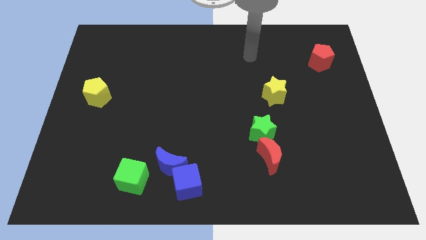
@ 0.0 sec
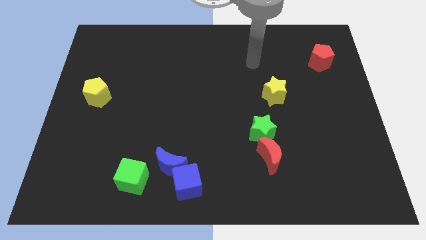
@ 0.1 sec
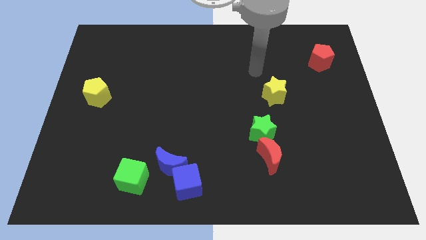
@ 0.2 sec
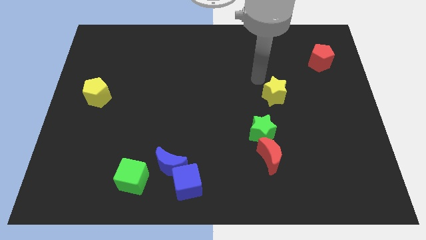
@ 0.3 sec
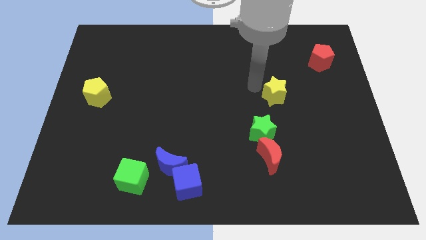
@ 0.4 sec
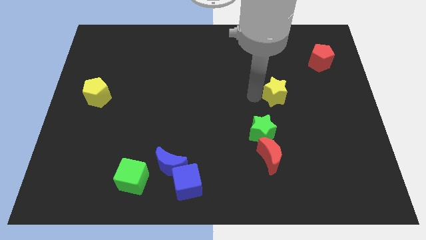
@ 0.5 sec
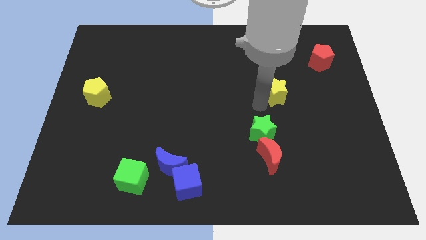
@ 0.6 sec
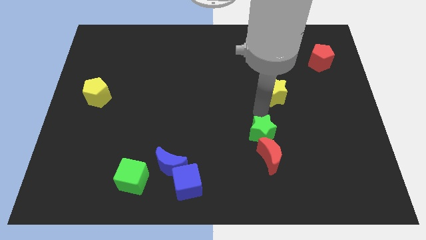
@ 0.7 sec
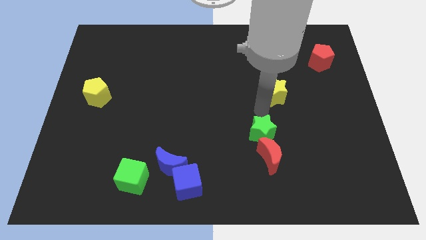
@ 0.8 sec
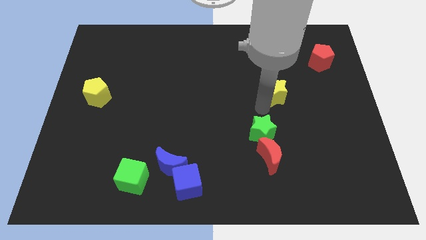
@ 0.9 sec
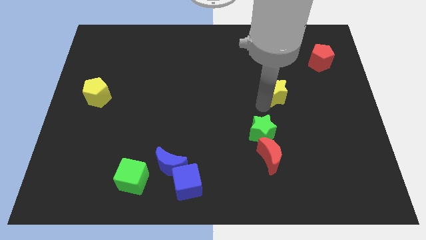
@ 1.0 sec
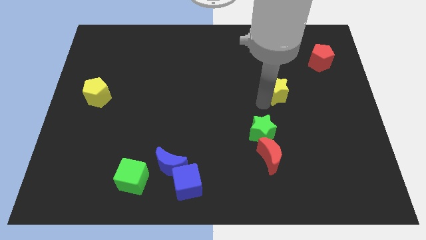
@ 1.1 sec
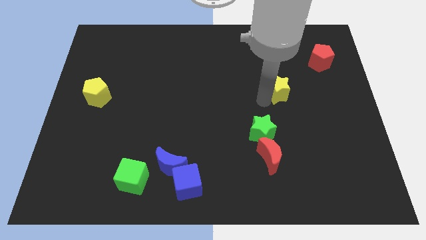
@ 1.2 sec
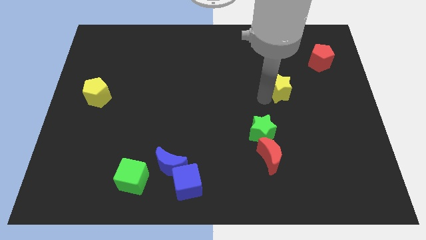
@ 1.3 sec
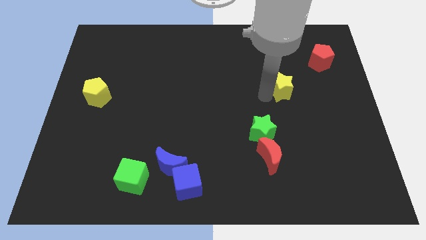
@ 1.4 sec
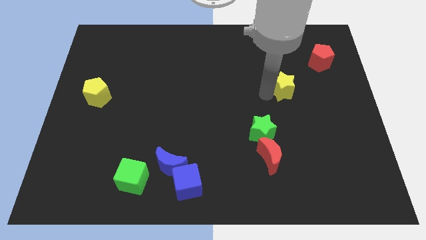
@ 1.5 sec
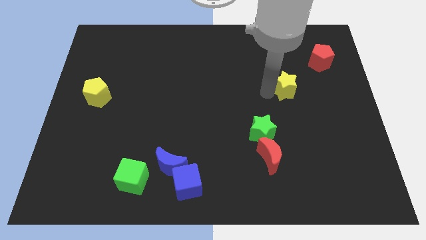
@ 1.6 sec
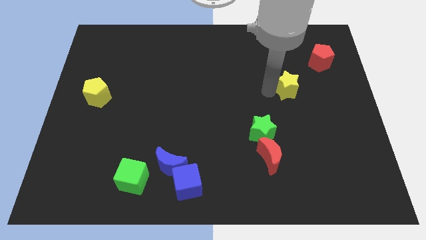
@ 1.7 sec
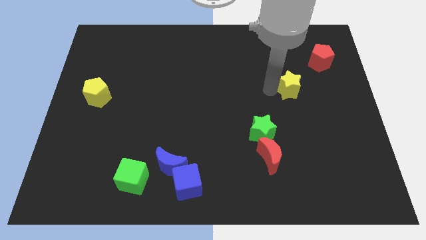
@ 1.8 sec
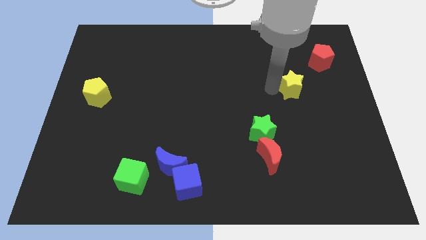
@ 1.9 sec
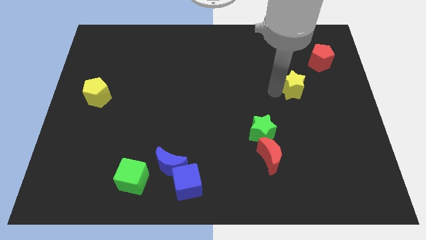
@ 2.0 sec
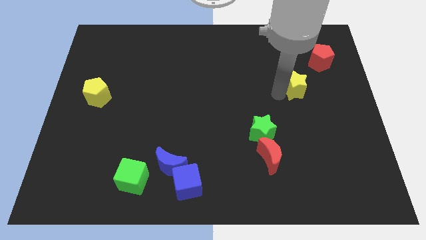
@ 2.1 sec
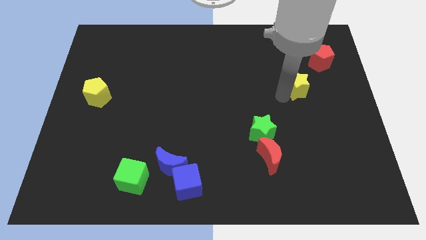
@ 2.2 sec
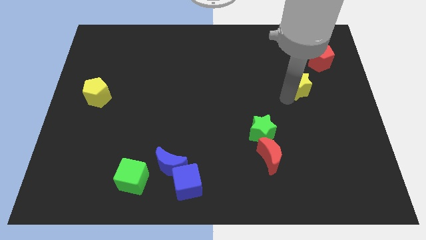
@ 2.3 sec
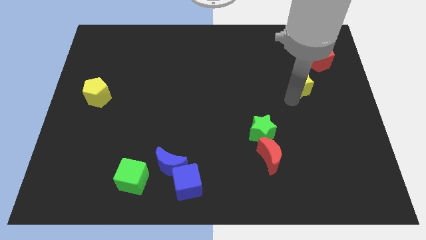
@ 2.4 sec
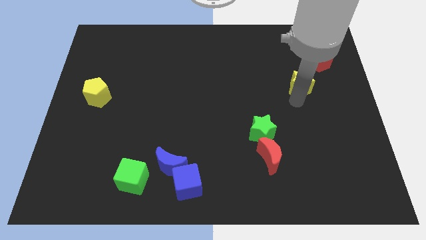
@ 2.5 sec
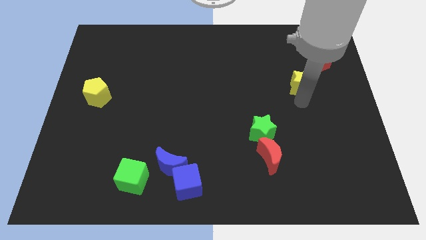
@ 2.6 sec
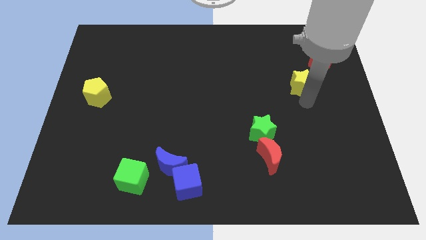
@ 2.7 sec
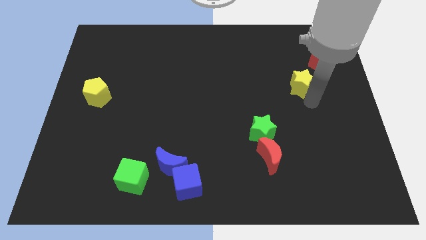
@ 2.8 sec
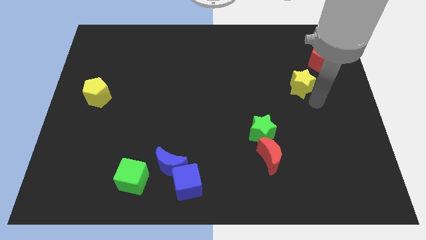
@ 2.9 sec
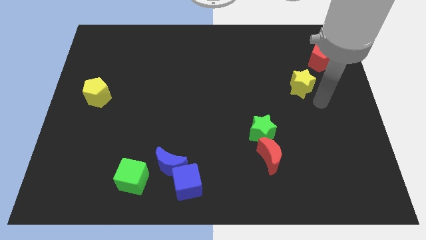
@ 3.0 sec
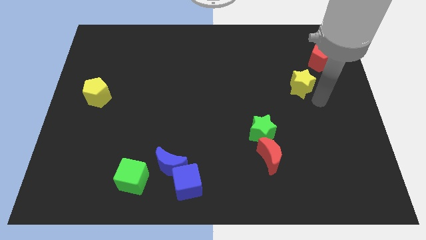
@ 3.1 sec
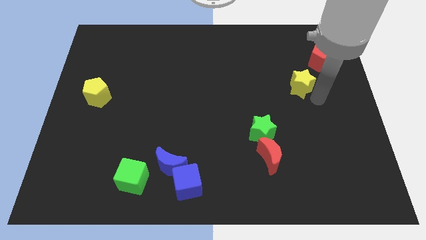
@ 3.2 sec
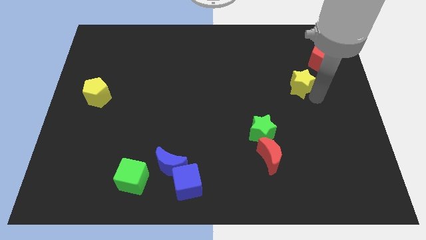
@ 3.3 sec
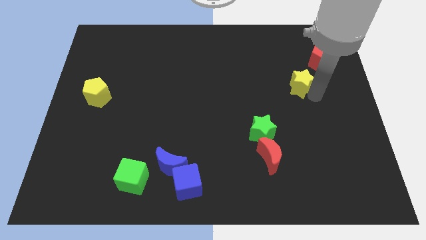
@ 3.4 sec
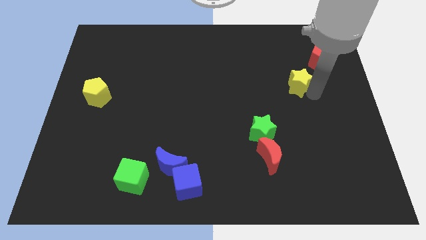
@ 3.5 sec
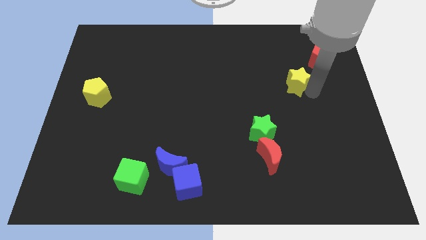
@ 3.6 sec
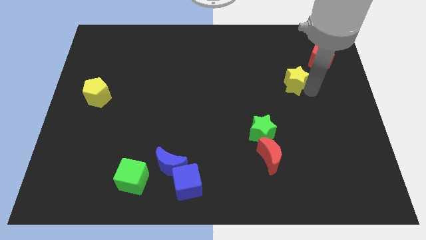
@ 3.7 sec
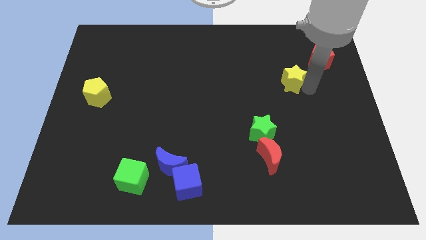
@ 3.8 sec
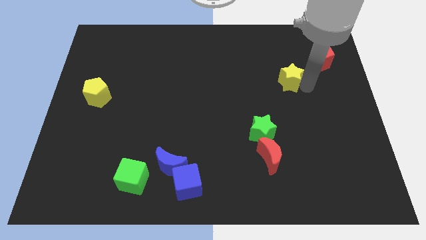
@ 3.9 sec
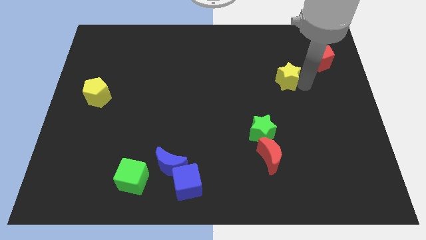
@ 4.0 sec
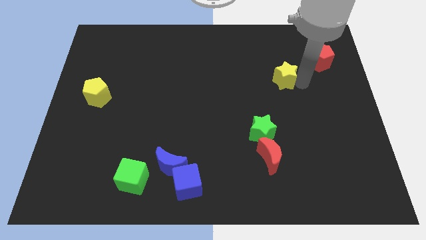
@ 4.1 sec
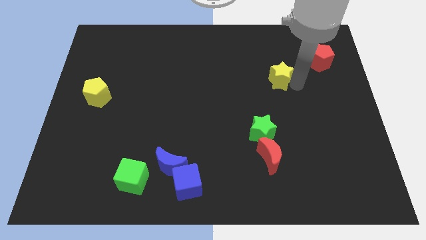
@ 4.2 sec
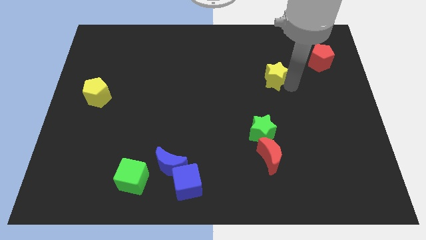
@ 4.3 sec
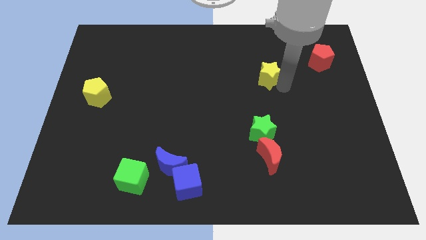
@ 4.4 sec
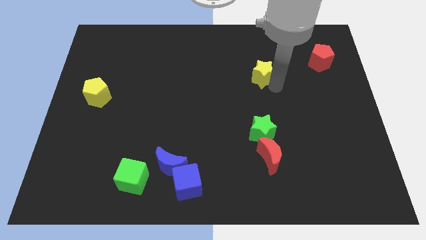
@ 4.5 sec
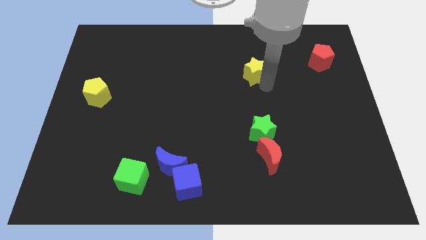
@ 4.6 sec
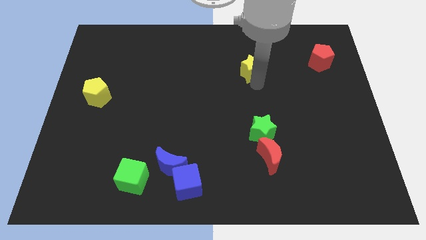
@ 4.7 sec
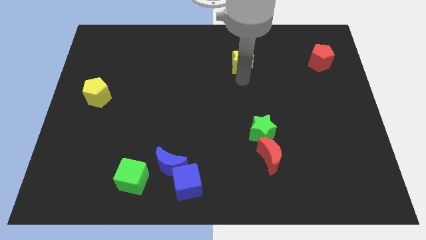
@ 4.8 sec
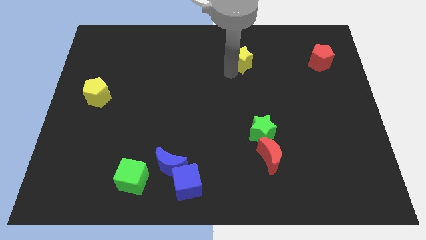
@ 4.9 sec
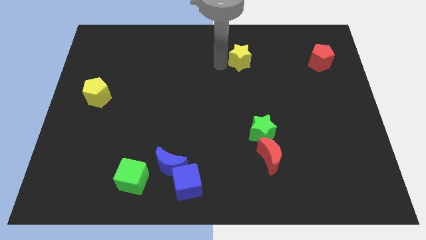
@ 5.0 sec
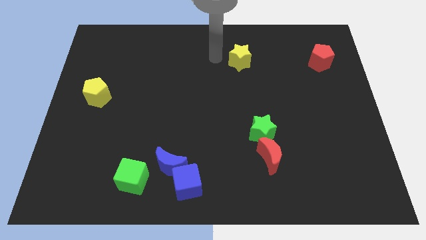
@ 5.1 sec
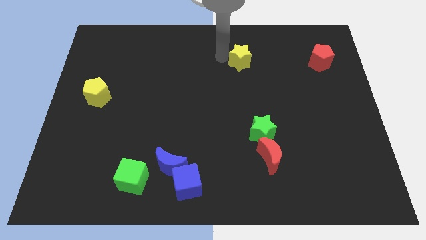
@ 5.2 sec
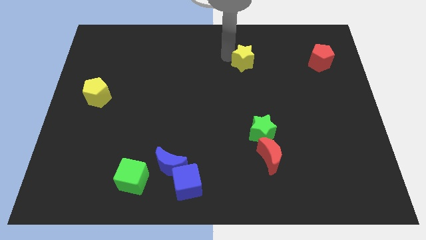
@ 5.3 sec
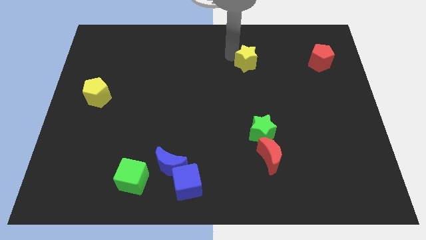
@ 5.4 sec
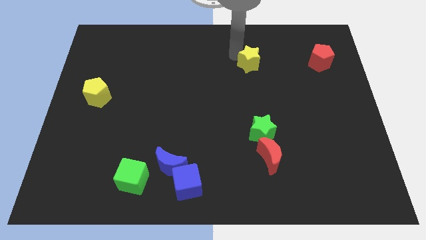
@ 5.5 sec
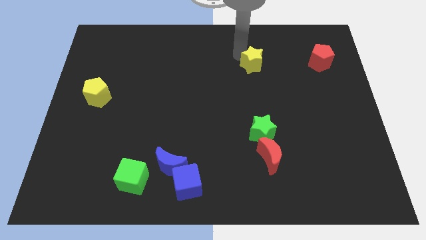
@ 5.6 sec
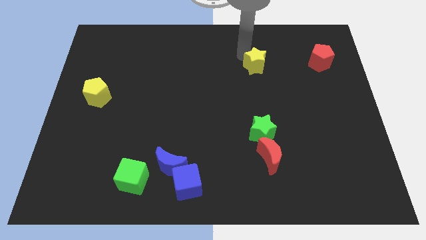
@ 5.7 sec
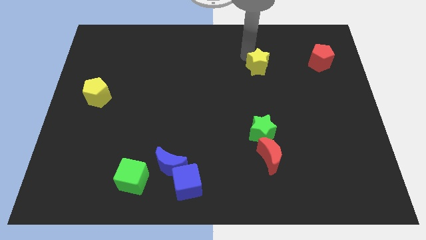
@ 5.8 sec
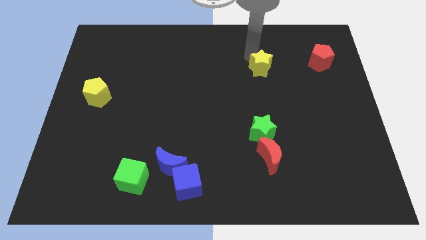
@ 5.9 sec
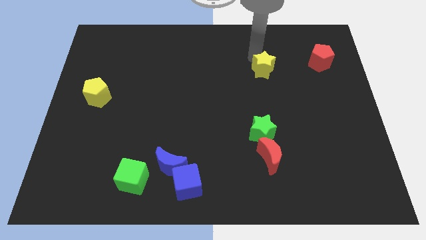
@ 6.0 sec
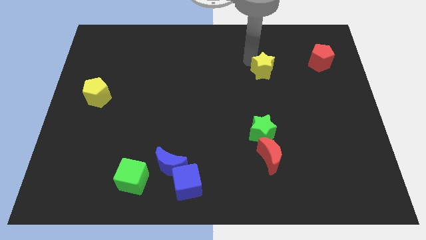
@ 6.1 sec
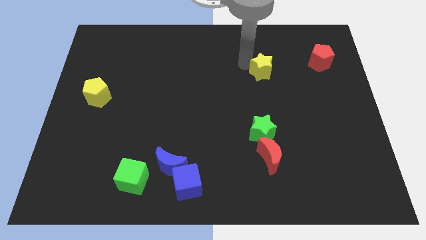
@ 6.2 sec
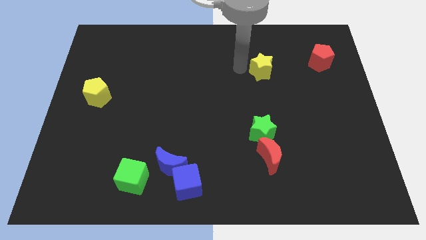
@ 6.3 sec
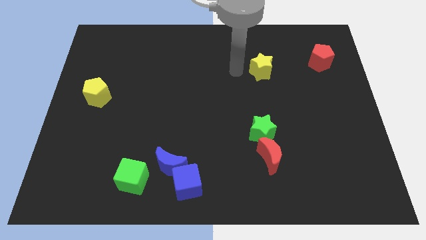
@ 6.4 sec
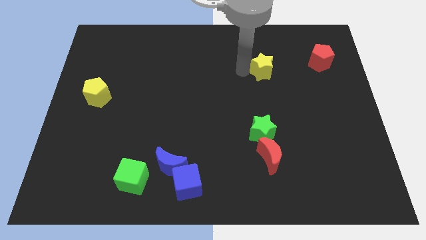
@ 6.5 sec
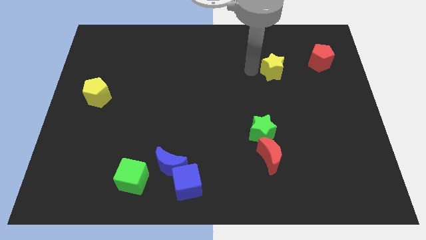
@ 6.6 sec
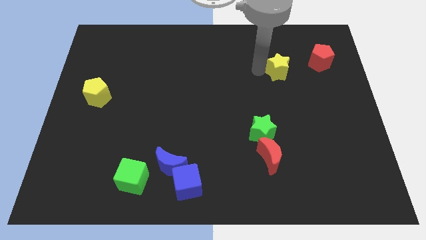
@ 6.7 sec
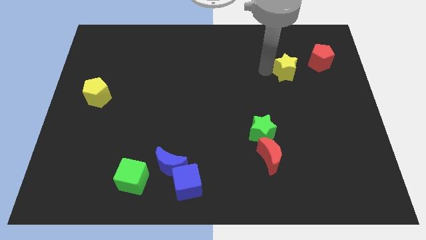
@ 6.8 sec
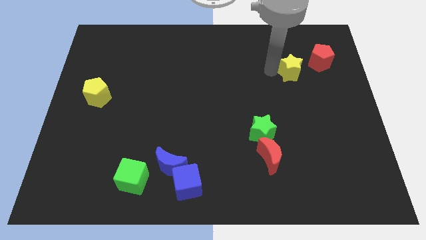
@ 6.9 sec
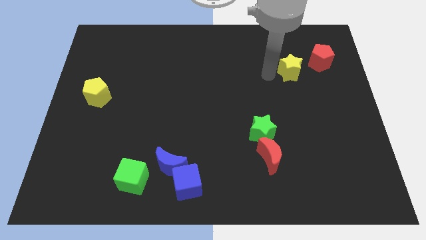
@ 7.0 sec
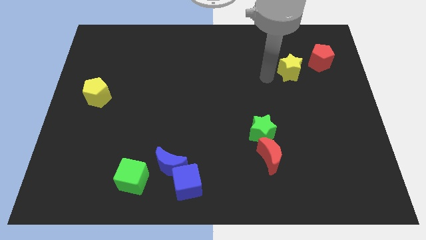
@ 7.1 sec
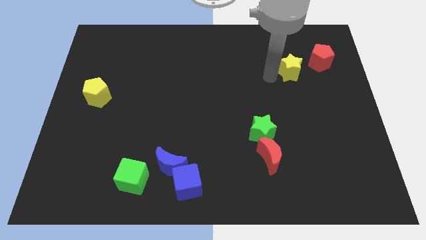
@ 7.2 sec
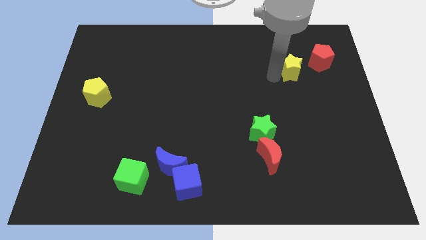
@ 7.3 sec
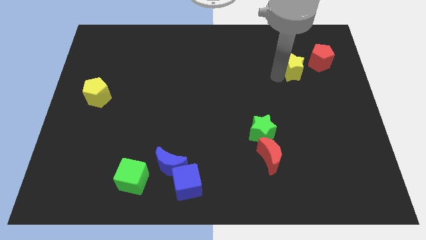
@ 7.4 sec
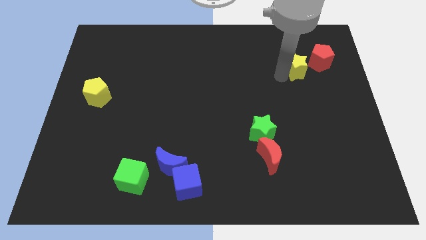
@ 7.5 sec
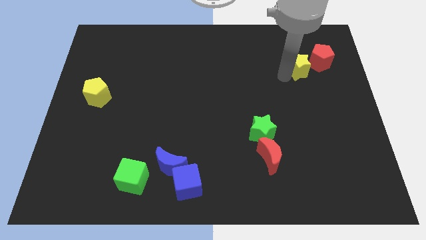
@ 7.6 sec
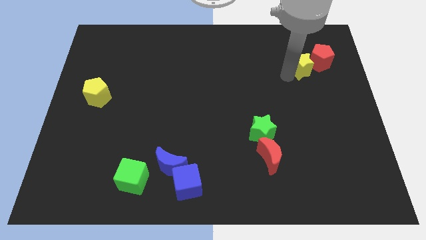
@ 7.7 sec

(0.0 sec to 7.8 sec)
move the yellow star towards the red pentagon
